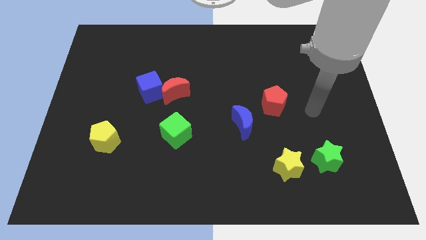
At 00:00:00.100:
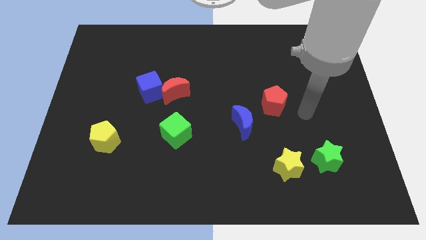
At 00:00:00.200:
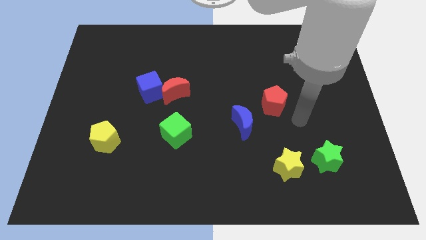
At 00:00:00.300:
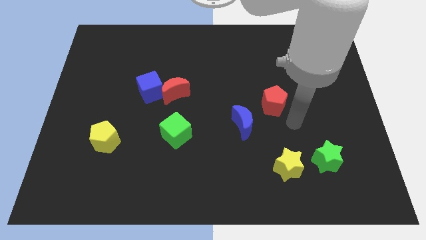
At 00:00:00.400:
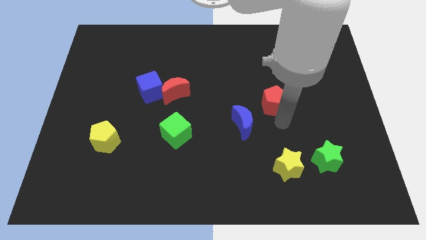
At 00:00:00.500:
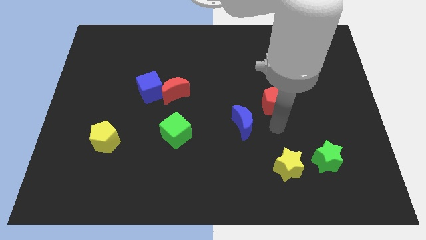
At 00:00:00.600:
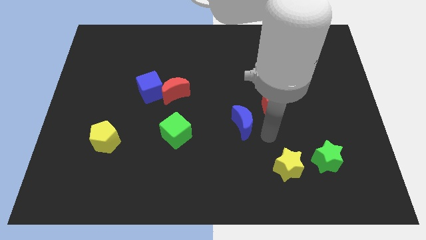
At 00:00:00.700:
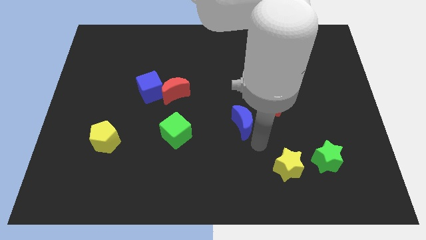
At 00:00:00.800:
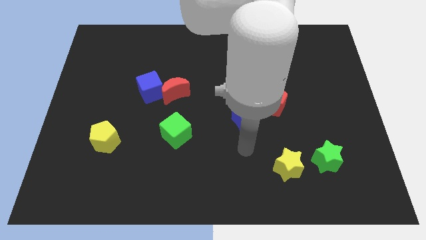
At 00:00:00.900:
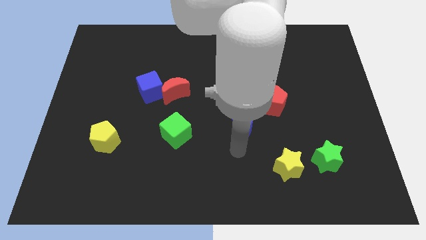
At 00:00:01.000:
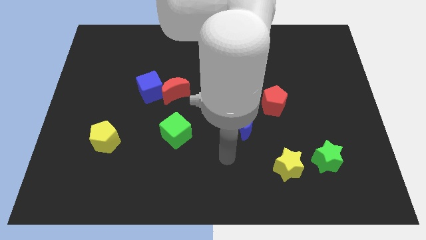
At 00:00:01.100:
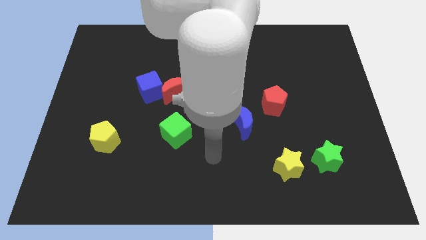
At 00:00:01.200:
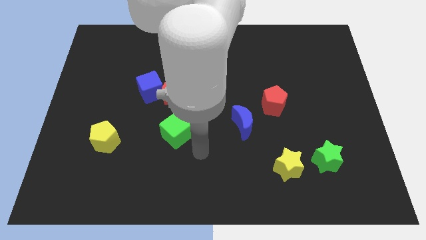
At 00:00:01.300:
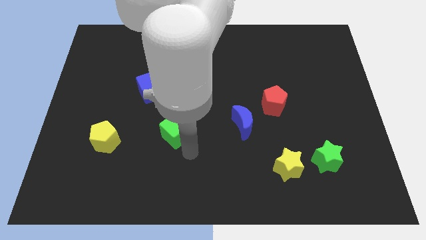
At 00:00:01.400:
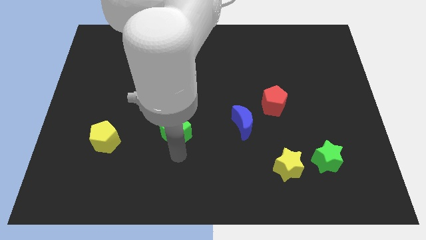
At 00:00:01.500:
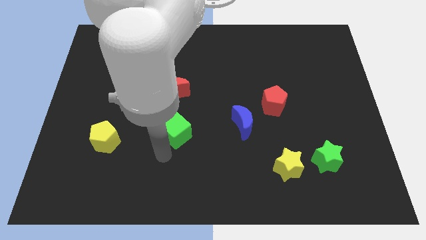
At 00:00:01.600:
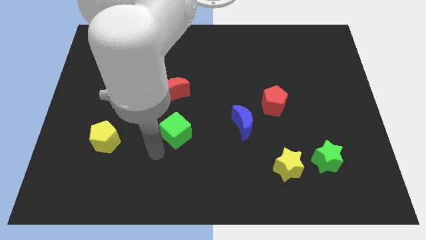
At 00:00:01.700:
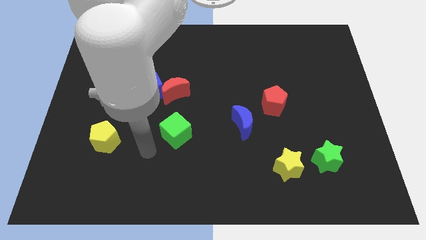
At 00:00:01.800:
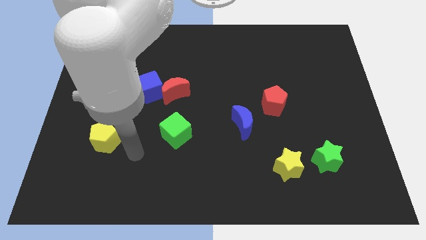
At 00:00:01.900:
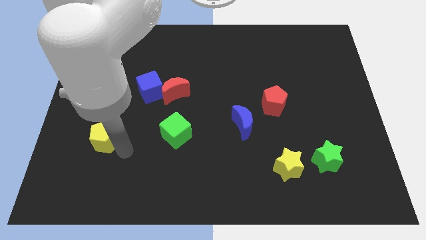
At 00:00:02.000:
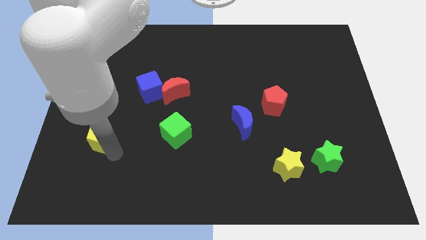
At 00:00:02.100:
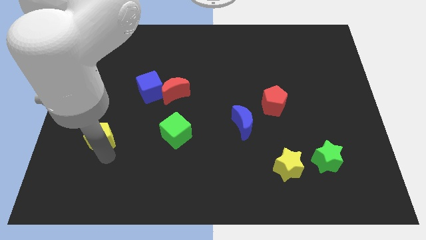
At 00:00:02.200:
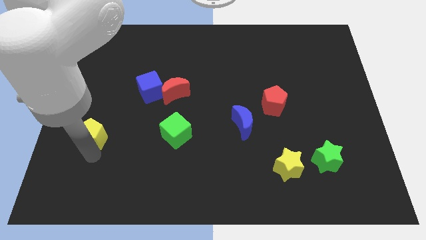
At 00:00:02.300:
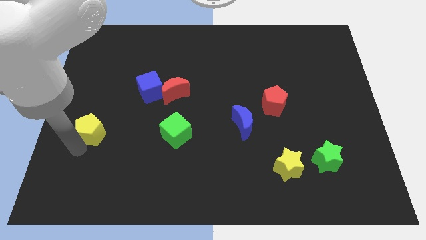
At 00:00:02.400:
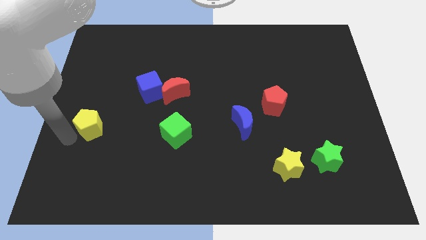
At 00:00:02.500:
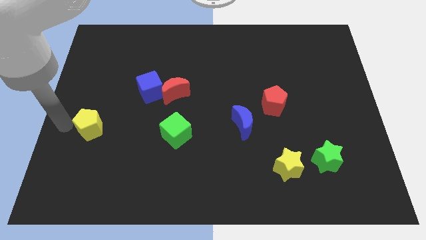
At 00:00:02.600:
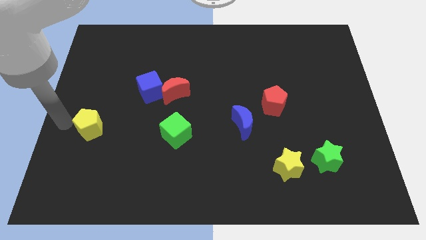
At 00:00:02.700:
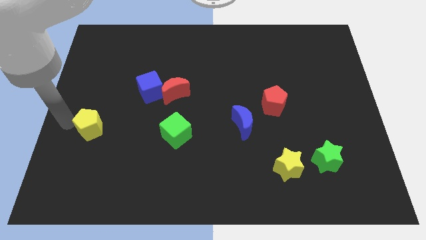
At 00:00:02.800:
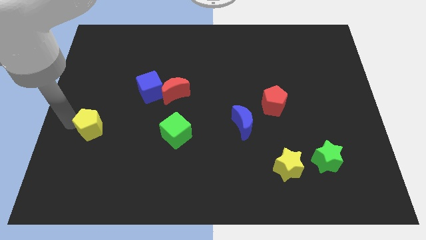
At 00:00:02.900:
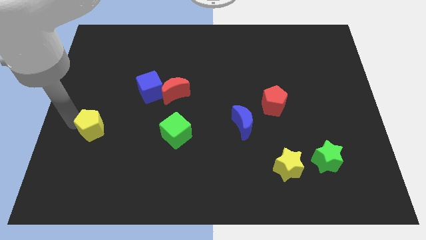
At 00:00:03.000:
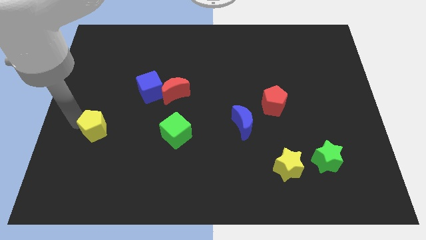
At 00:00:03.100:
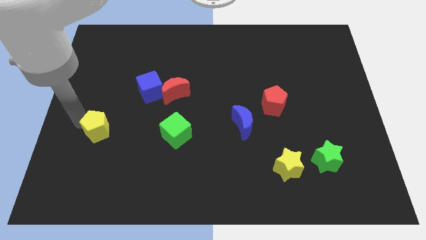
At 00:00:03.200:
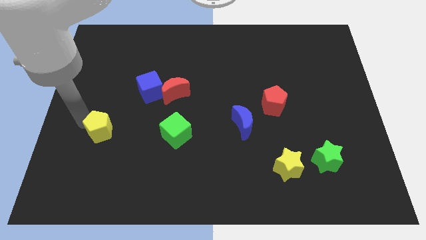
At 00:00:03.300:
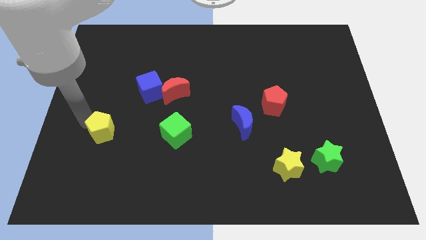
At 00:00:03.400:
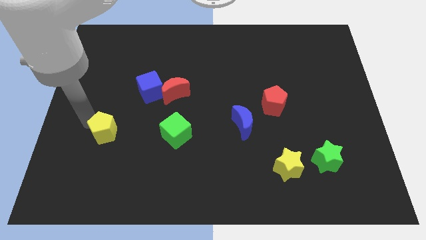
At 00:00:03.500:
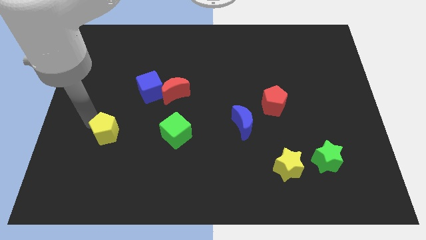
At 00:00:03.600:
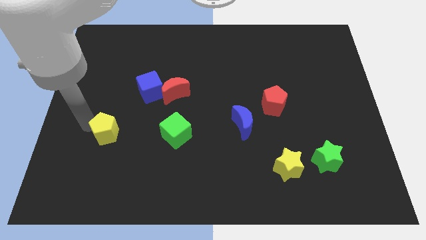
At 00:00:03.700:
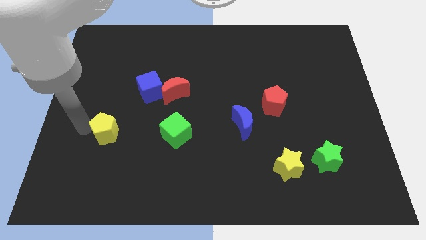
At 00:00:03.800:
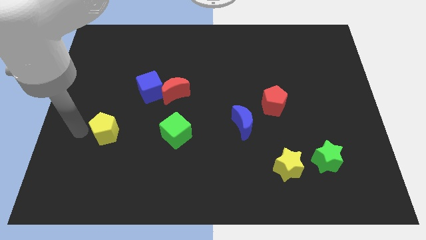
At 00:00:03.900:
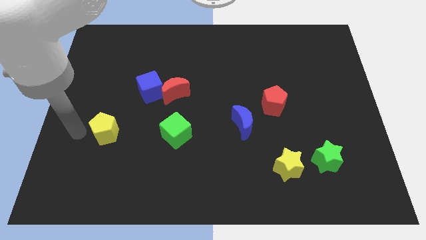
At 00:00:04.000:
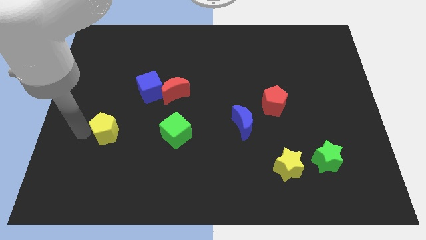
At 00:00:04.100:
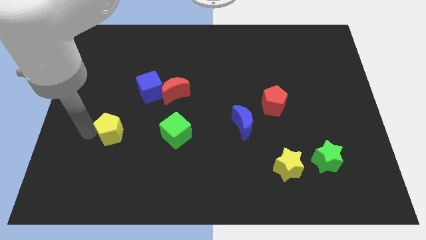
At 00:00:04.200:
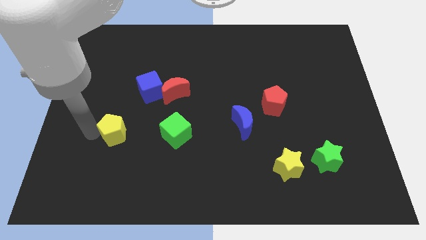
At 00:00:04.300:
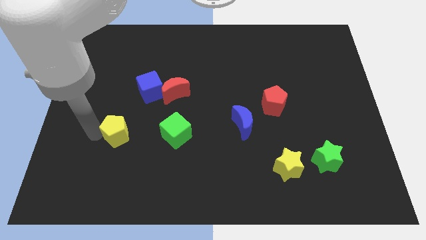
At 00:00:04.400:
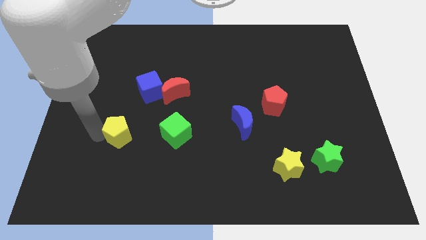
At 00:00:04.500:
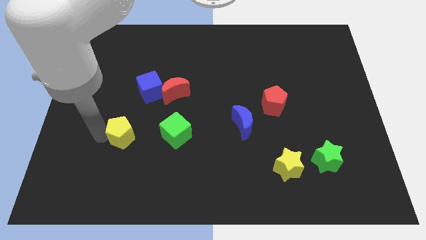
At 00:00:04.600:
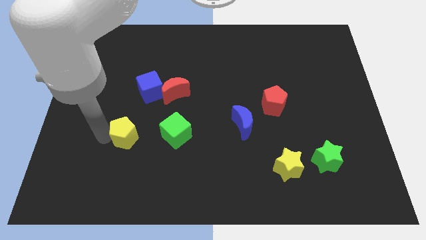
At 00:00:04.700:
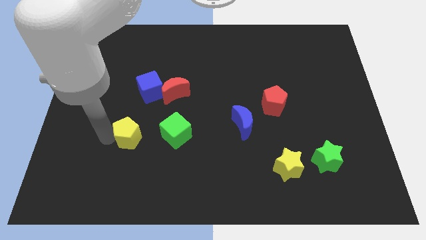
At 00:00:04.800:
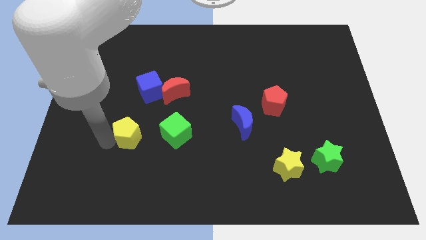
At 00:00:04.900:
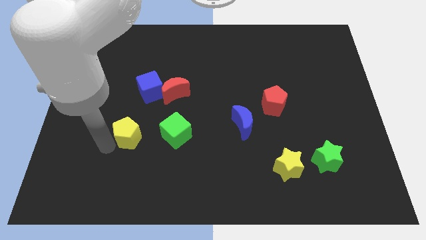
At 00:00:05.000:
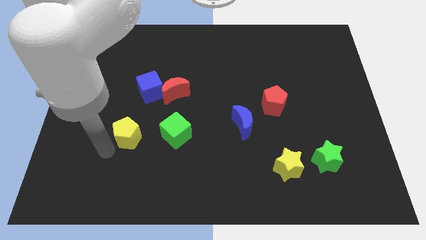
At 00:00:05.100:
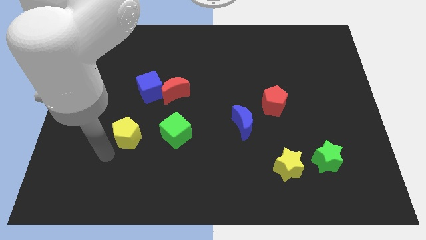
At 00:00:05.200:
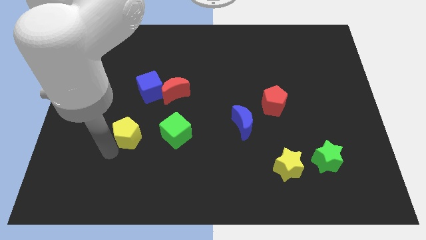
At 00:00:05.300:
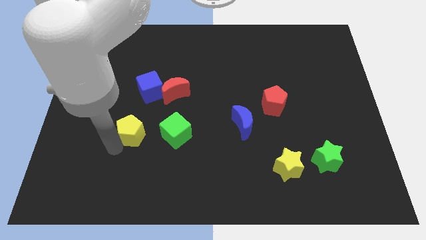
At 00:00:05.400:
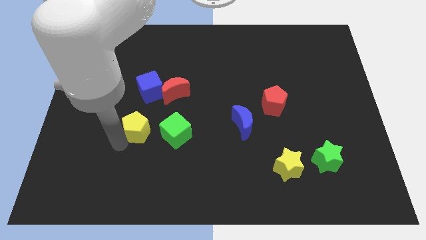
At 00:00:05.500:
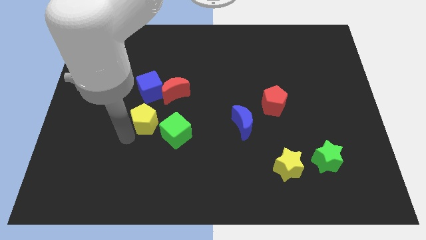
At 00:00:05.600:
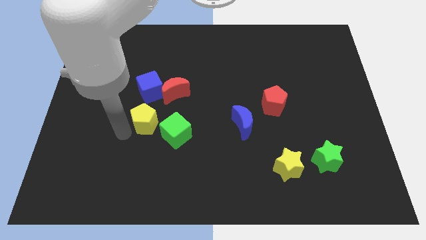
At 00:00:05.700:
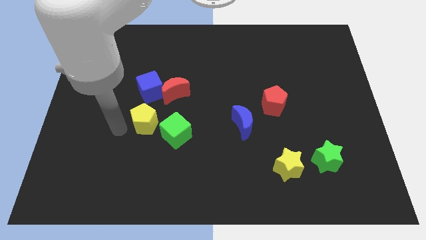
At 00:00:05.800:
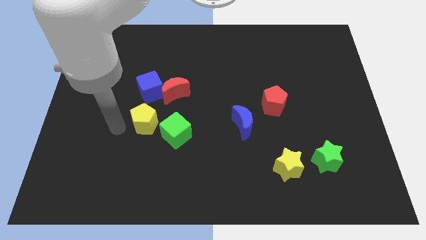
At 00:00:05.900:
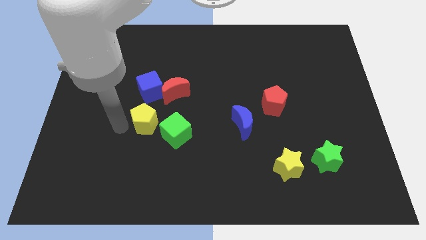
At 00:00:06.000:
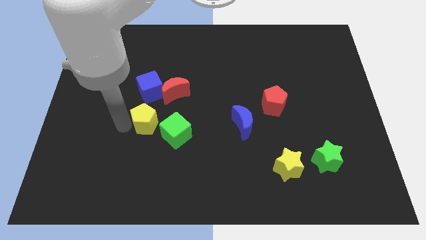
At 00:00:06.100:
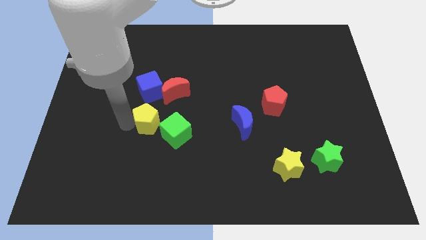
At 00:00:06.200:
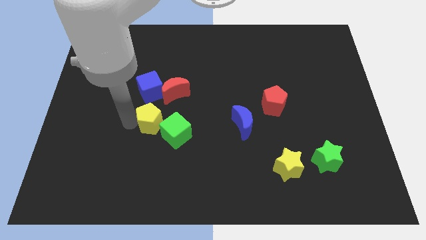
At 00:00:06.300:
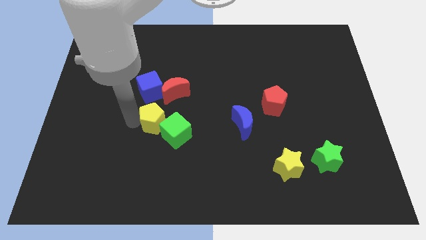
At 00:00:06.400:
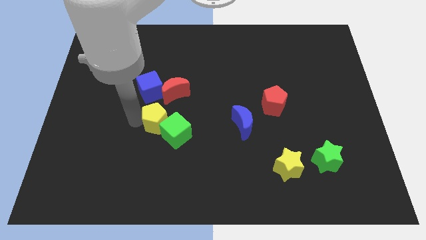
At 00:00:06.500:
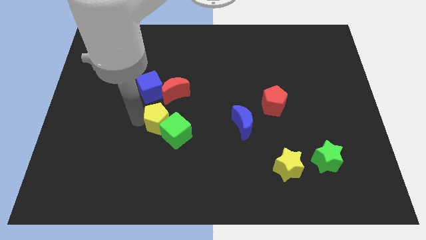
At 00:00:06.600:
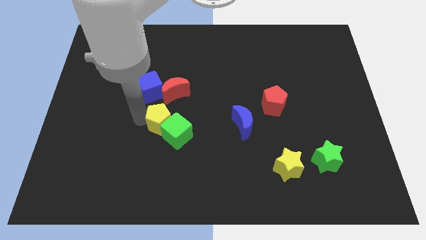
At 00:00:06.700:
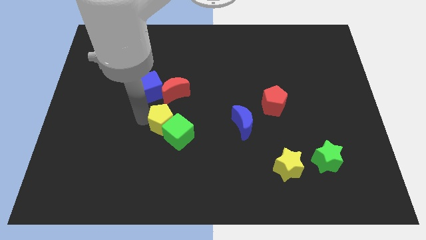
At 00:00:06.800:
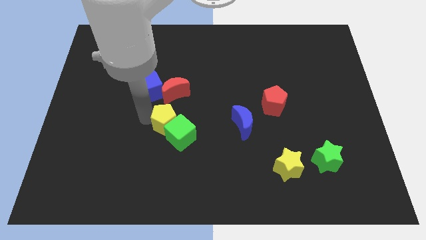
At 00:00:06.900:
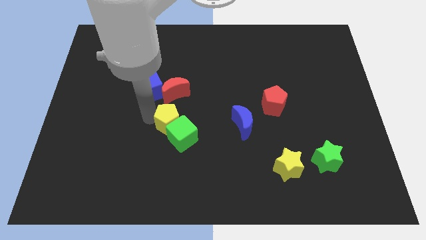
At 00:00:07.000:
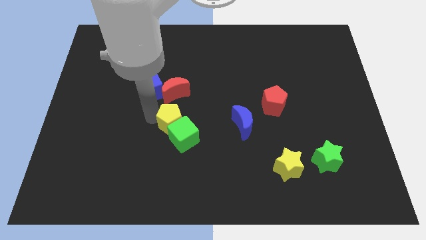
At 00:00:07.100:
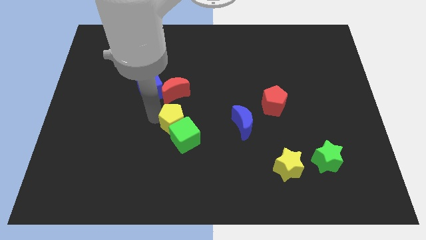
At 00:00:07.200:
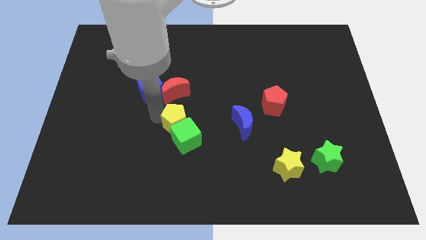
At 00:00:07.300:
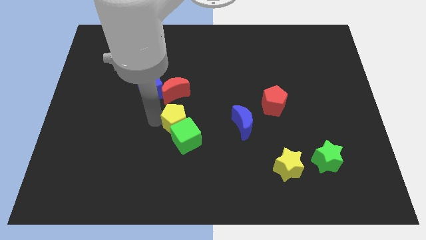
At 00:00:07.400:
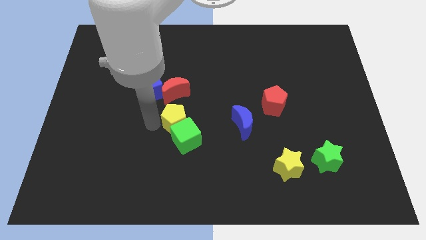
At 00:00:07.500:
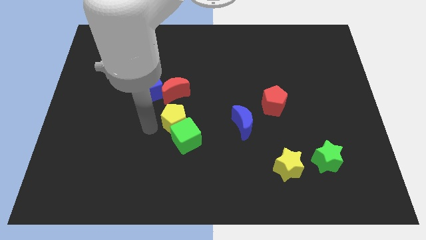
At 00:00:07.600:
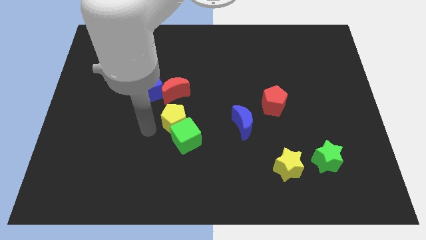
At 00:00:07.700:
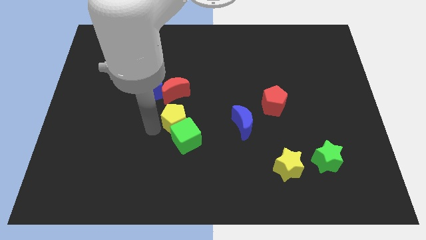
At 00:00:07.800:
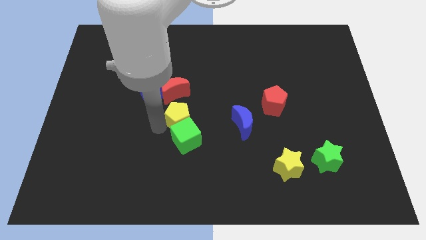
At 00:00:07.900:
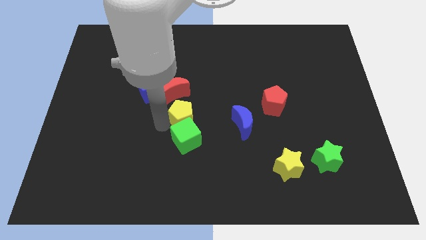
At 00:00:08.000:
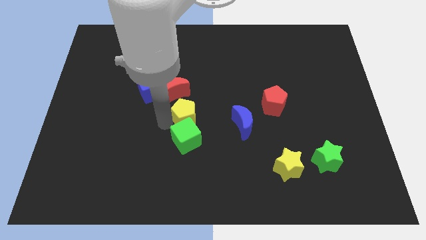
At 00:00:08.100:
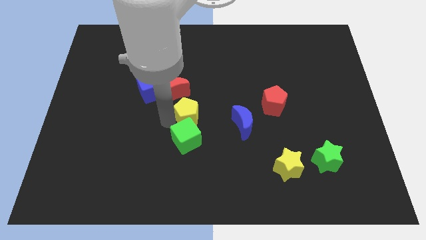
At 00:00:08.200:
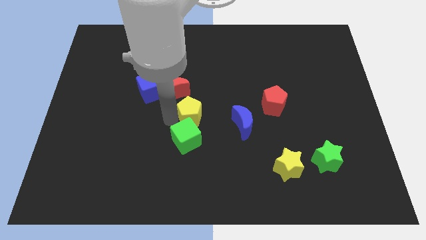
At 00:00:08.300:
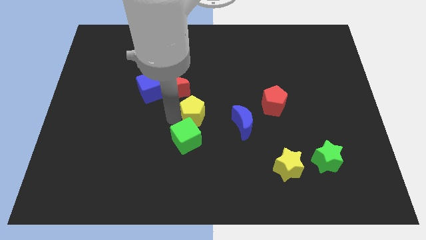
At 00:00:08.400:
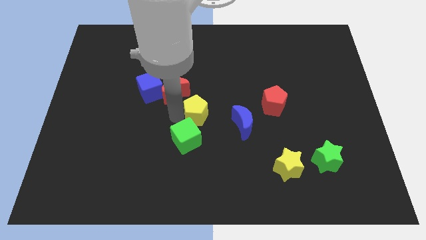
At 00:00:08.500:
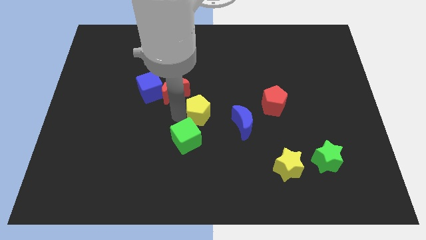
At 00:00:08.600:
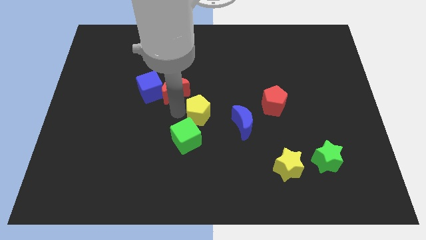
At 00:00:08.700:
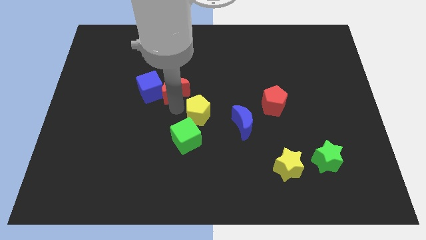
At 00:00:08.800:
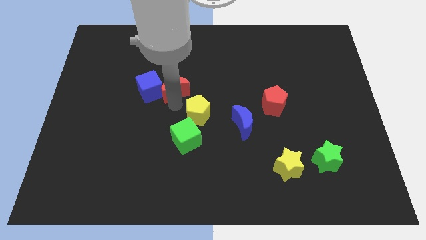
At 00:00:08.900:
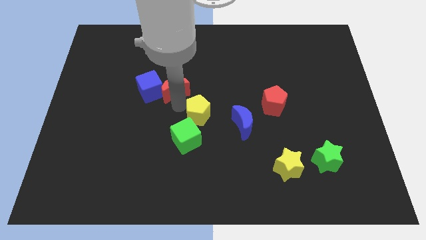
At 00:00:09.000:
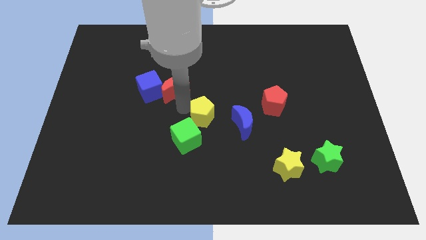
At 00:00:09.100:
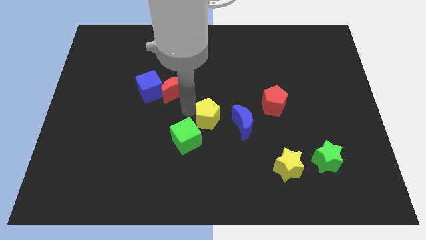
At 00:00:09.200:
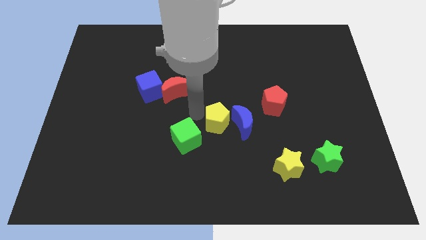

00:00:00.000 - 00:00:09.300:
move the yellow pentagon next to the blue moon
